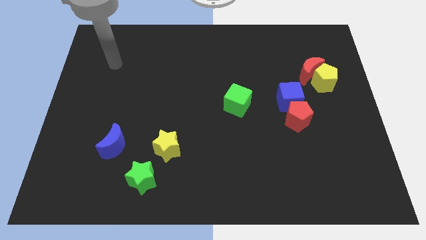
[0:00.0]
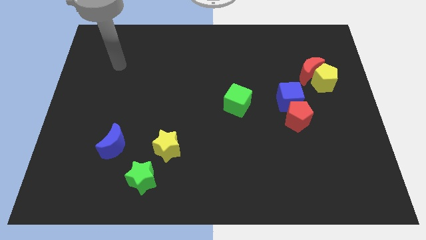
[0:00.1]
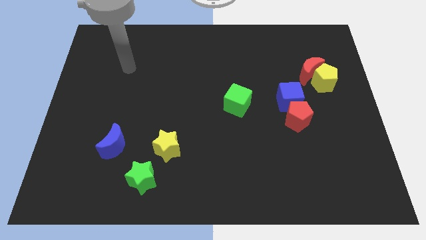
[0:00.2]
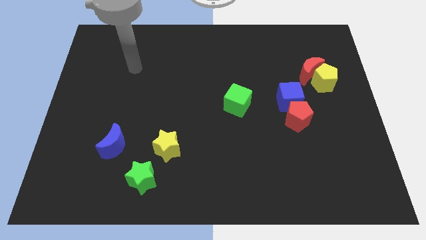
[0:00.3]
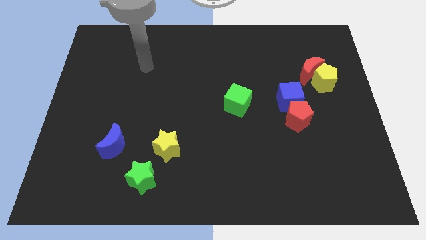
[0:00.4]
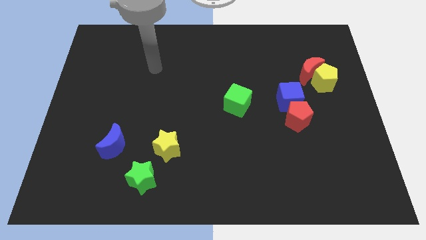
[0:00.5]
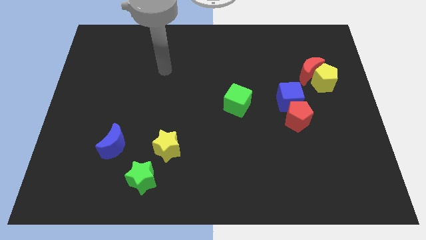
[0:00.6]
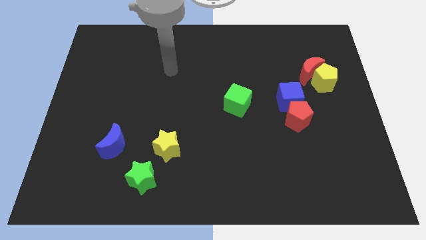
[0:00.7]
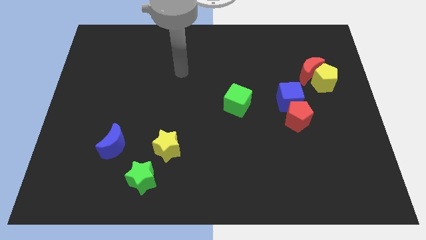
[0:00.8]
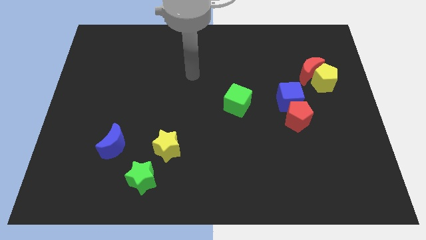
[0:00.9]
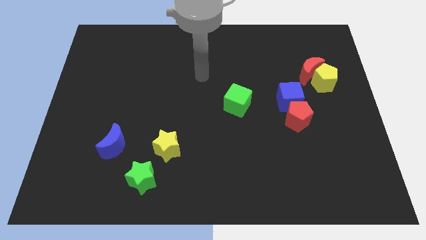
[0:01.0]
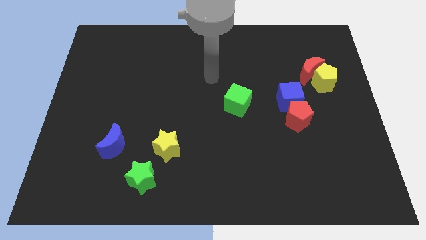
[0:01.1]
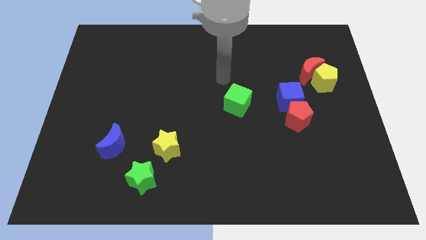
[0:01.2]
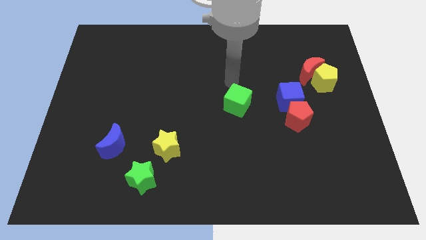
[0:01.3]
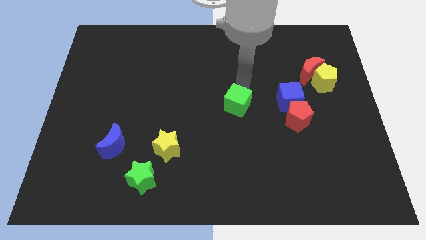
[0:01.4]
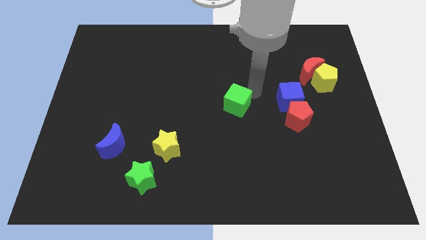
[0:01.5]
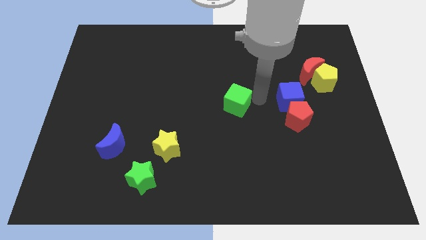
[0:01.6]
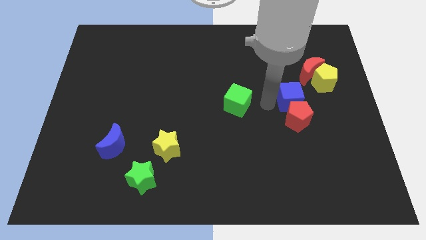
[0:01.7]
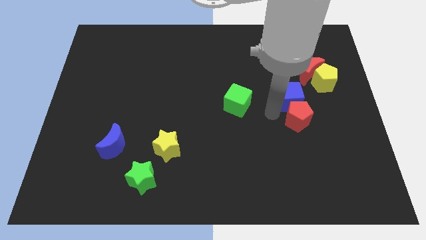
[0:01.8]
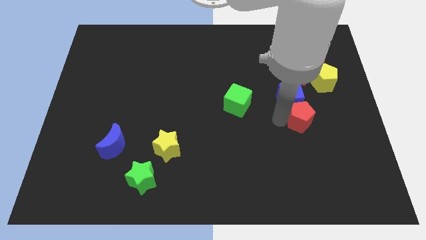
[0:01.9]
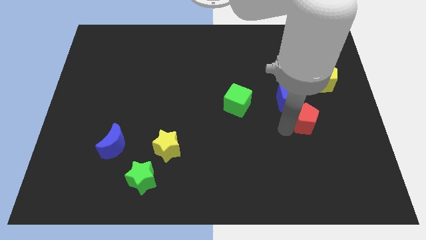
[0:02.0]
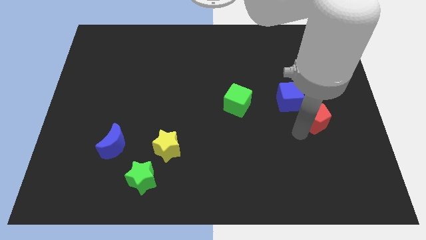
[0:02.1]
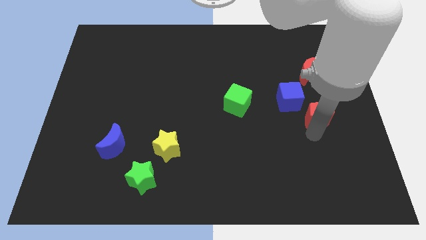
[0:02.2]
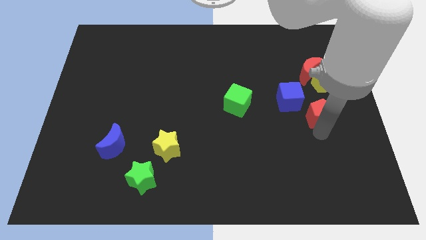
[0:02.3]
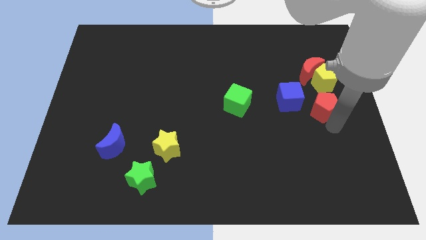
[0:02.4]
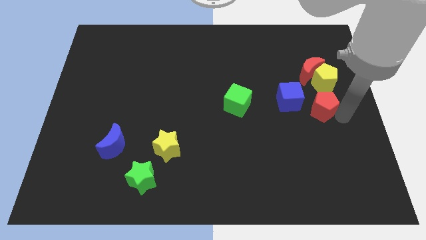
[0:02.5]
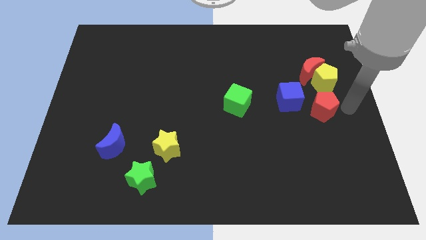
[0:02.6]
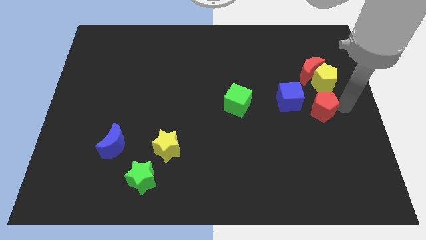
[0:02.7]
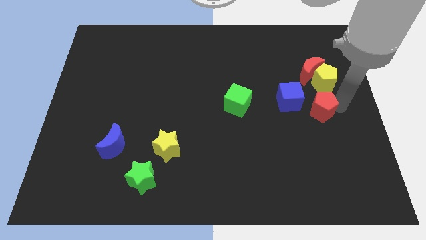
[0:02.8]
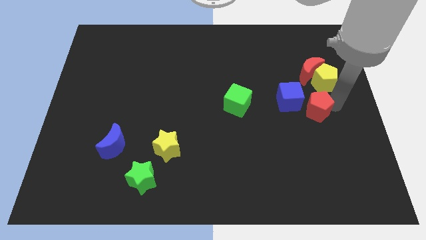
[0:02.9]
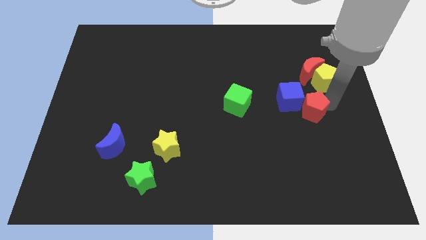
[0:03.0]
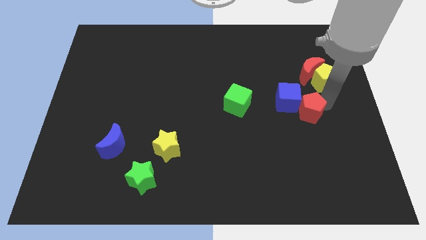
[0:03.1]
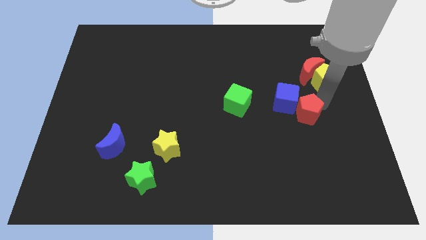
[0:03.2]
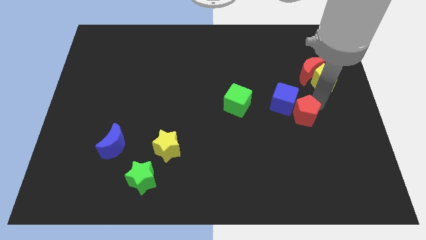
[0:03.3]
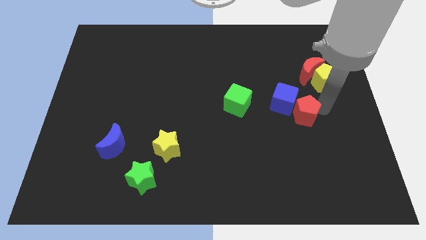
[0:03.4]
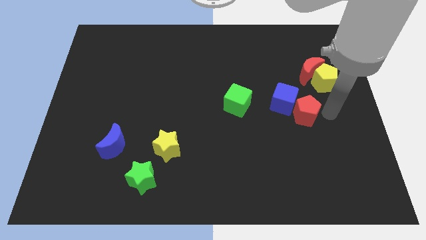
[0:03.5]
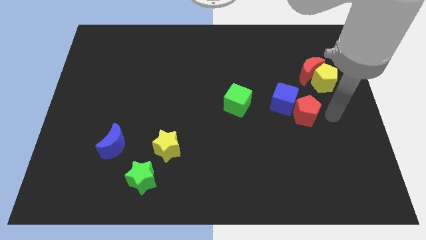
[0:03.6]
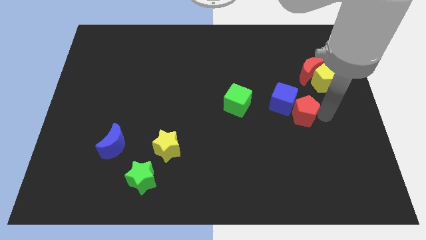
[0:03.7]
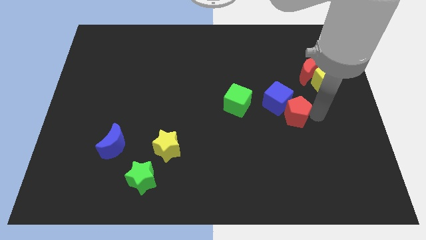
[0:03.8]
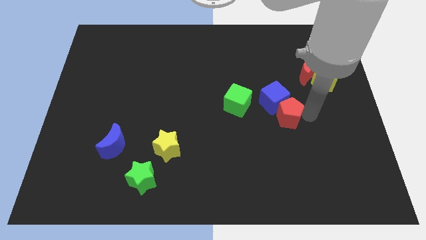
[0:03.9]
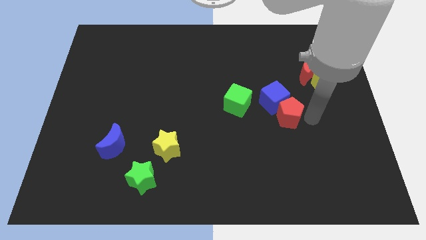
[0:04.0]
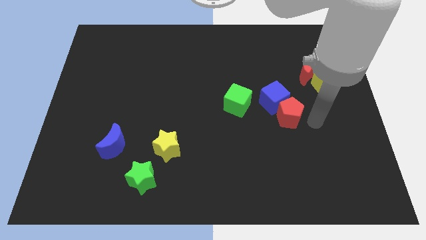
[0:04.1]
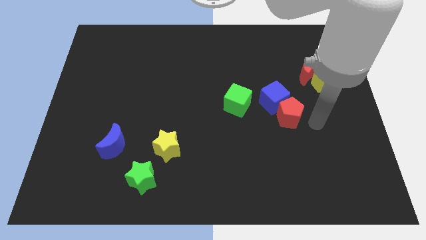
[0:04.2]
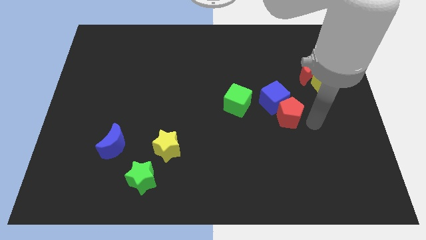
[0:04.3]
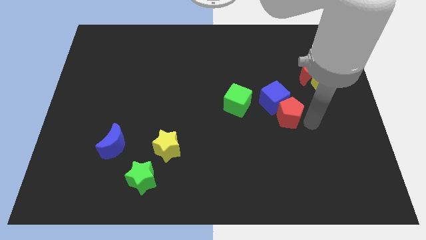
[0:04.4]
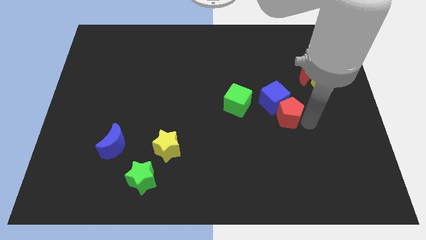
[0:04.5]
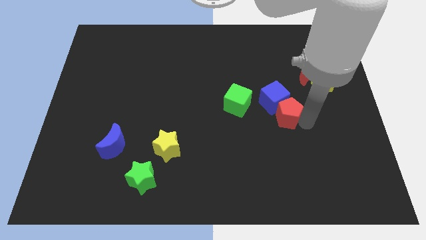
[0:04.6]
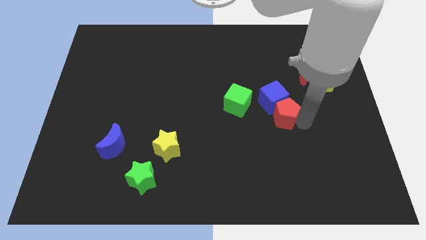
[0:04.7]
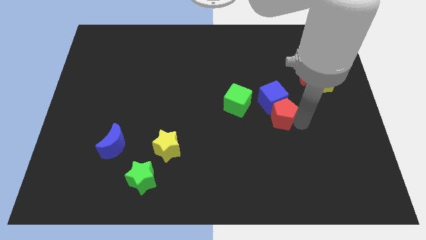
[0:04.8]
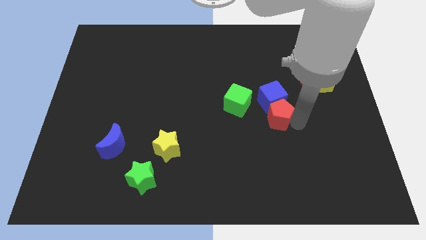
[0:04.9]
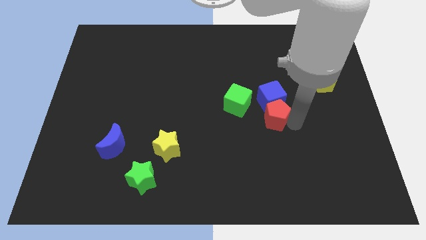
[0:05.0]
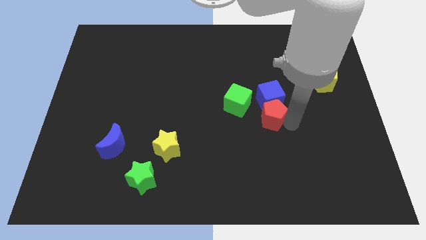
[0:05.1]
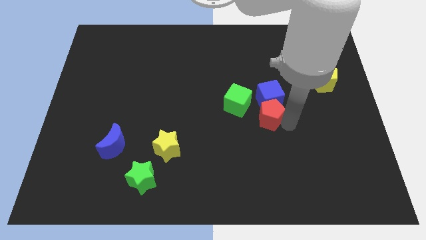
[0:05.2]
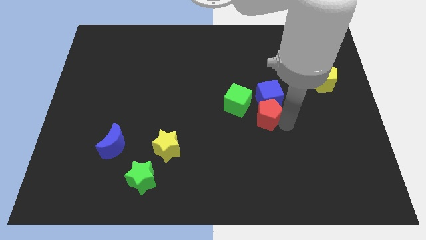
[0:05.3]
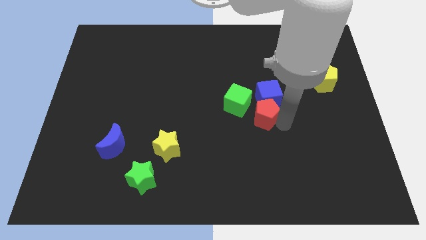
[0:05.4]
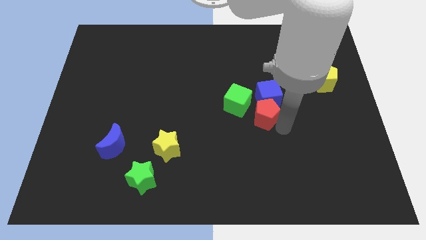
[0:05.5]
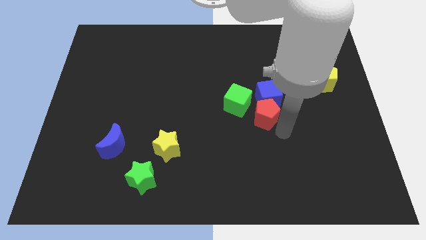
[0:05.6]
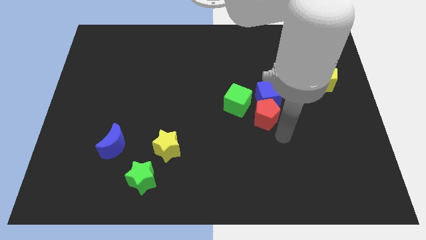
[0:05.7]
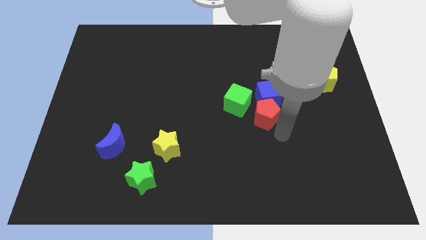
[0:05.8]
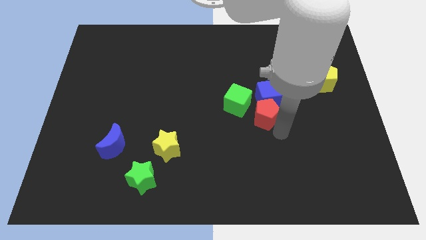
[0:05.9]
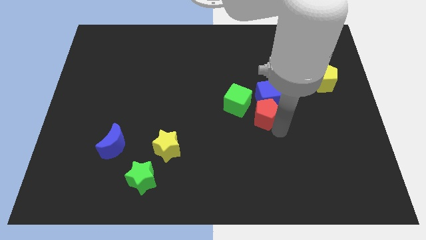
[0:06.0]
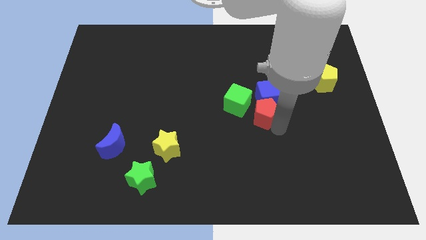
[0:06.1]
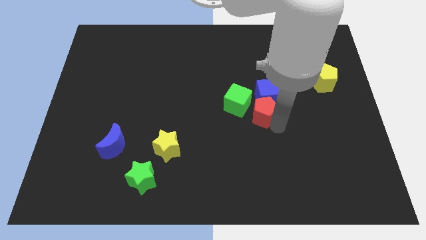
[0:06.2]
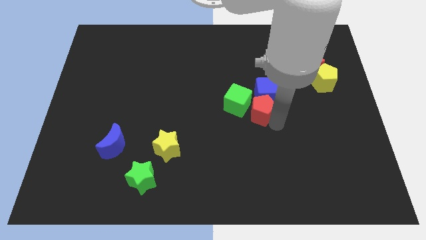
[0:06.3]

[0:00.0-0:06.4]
move the red pentagon next to the green cube

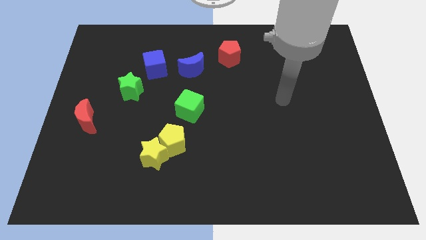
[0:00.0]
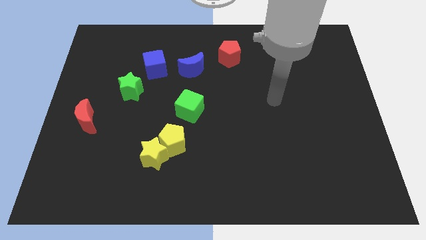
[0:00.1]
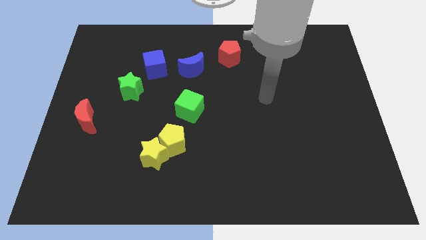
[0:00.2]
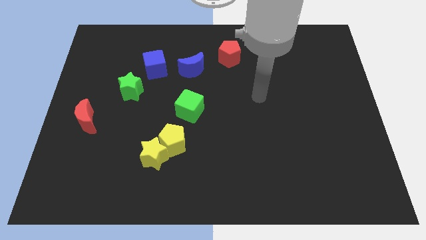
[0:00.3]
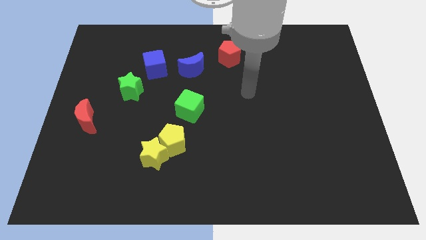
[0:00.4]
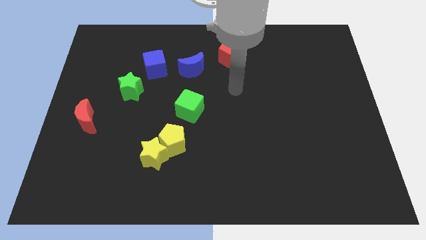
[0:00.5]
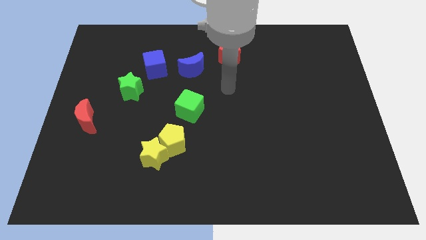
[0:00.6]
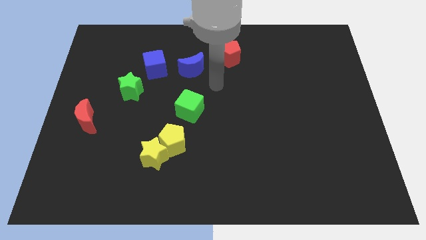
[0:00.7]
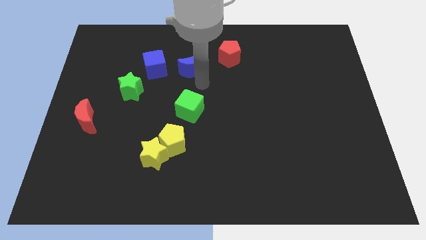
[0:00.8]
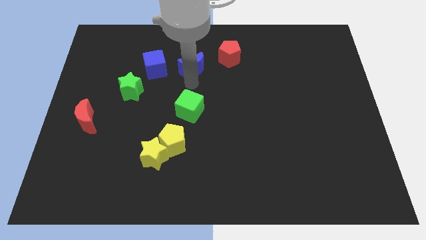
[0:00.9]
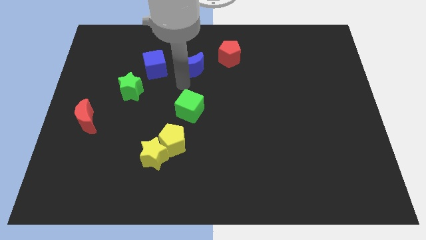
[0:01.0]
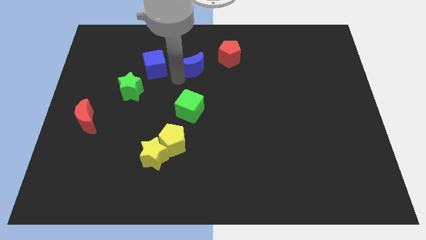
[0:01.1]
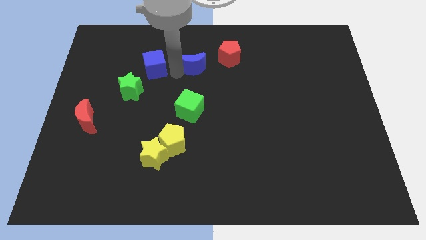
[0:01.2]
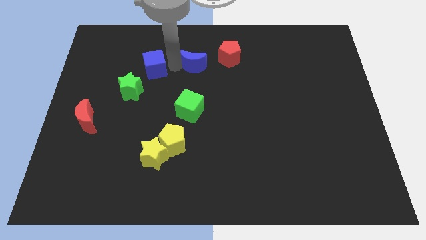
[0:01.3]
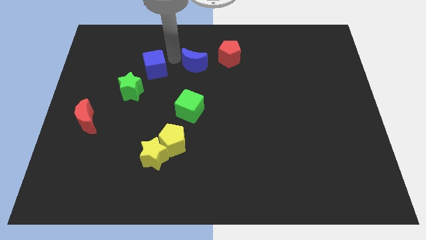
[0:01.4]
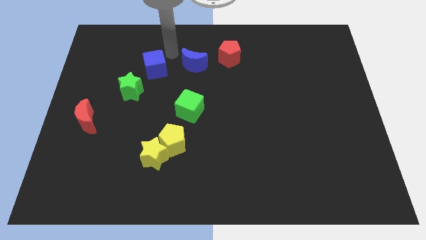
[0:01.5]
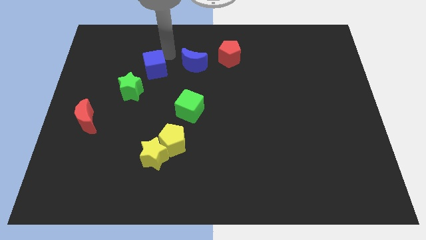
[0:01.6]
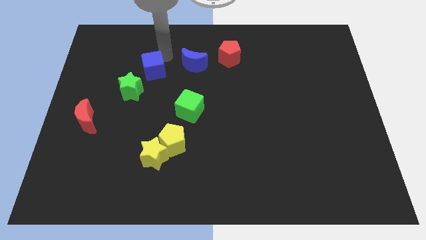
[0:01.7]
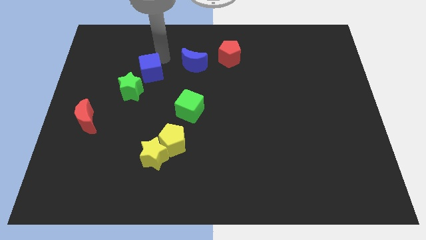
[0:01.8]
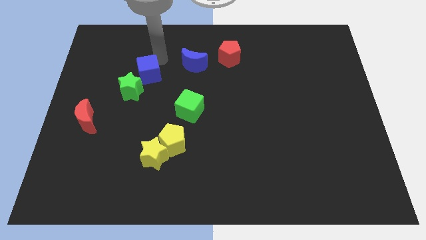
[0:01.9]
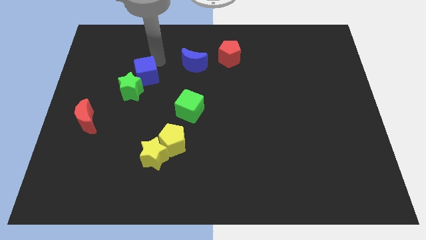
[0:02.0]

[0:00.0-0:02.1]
slide the blue cube to the green star
